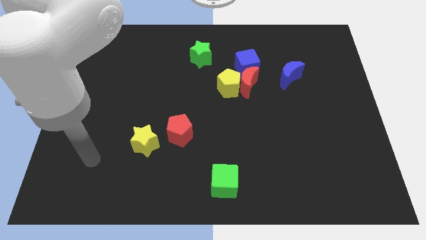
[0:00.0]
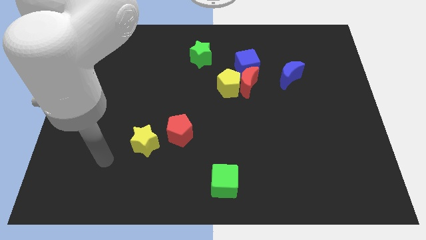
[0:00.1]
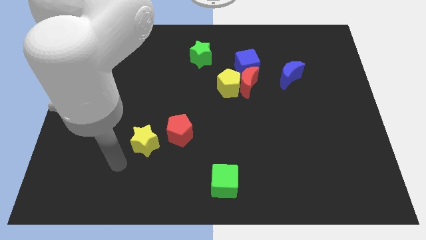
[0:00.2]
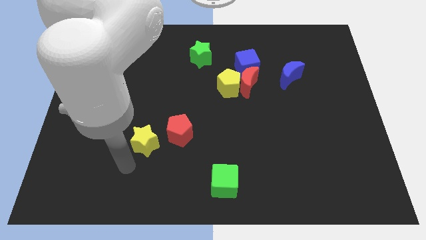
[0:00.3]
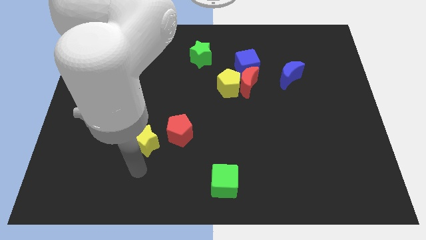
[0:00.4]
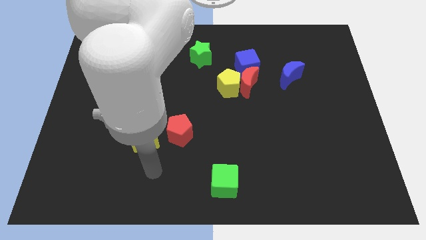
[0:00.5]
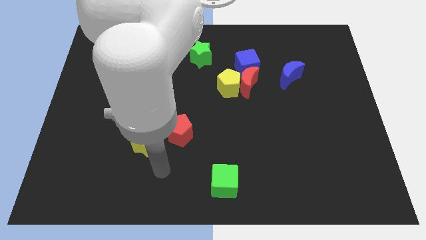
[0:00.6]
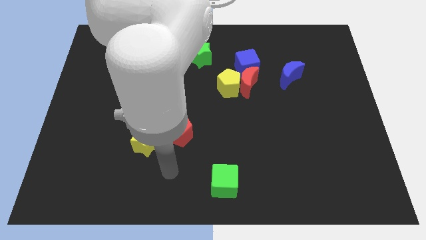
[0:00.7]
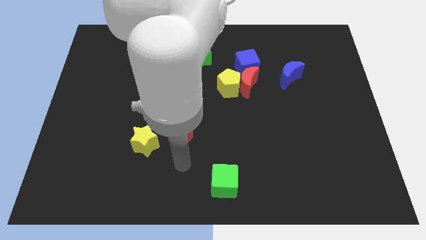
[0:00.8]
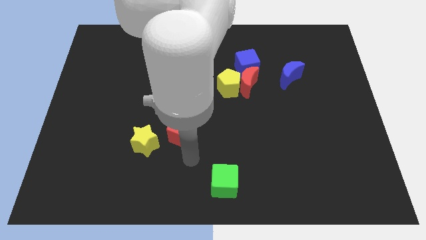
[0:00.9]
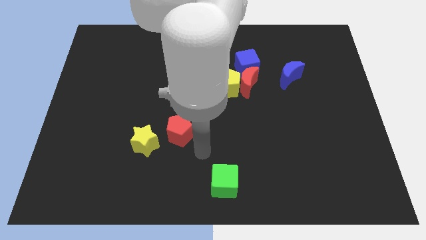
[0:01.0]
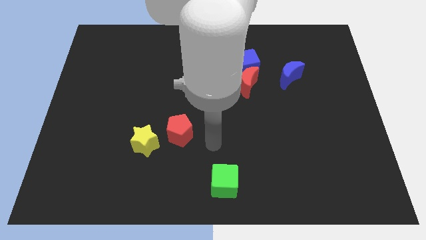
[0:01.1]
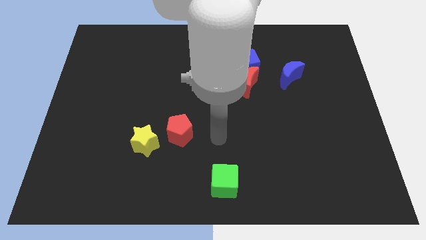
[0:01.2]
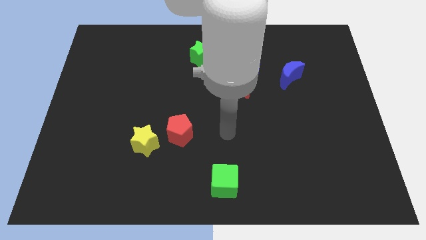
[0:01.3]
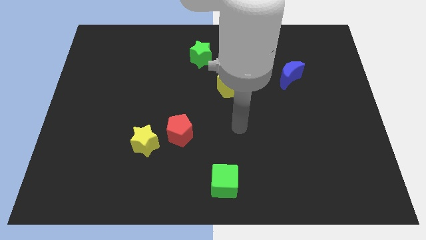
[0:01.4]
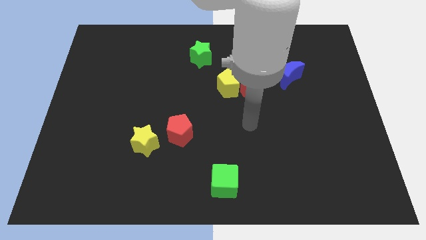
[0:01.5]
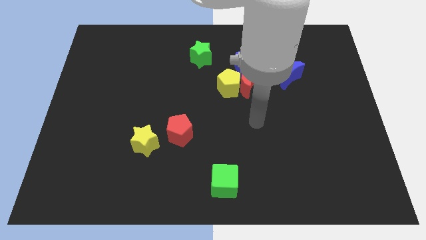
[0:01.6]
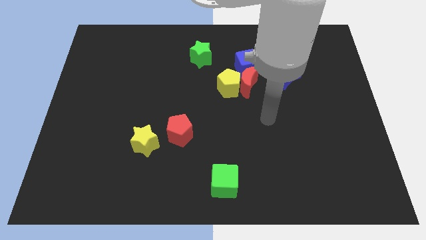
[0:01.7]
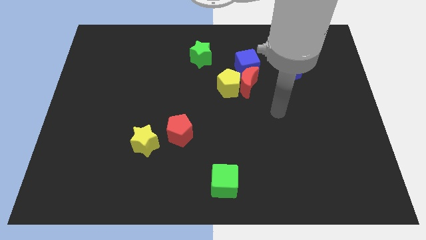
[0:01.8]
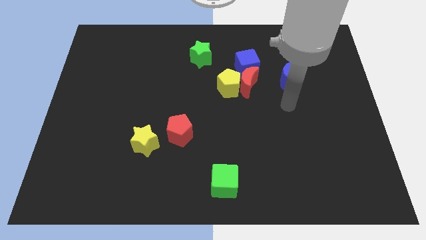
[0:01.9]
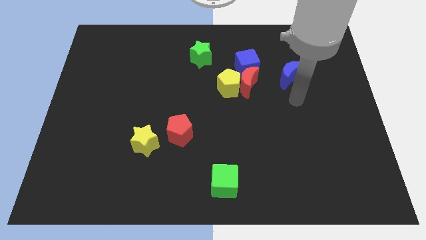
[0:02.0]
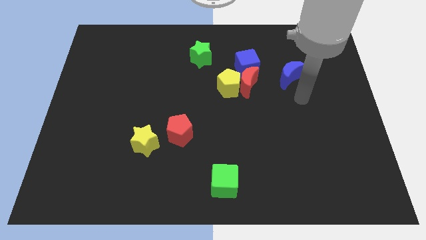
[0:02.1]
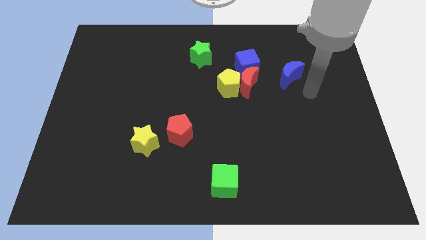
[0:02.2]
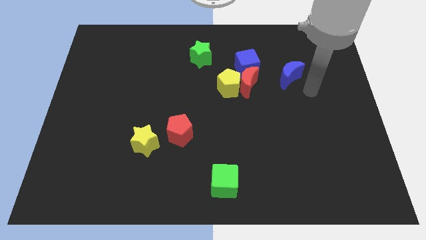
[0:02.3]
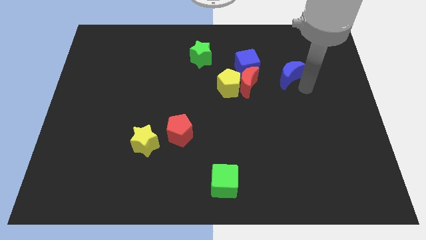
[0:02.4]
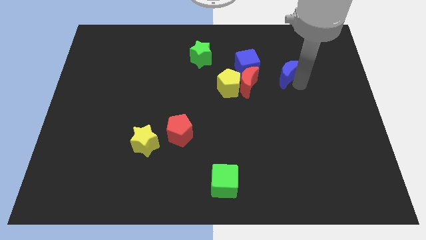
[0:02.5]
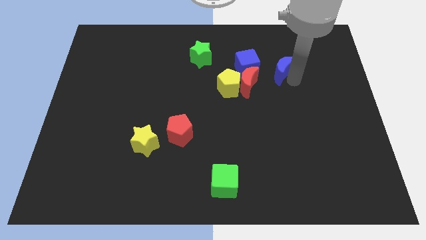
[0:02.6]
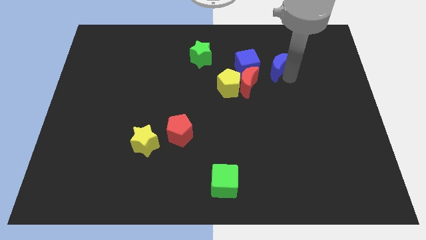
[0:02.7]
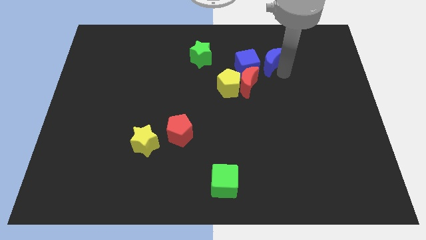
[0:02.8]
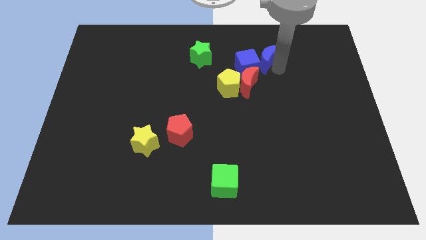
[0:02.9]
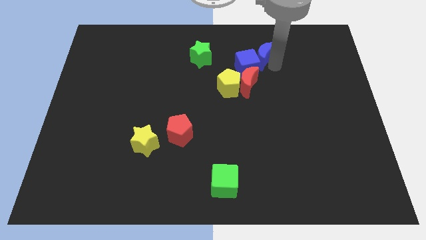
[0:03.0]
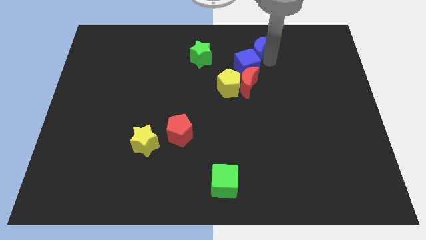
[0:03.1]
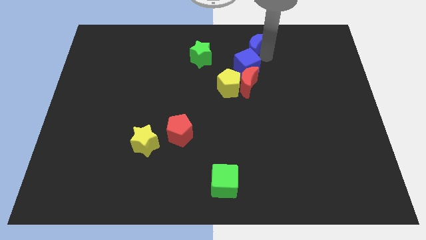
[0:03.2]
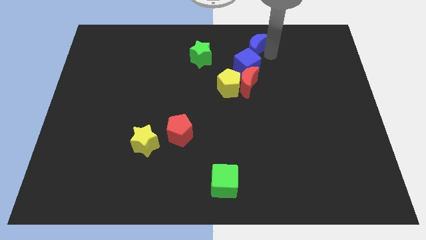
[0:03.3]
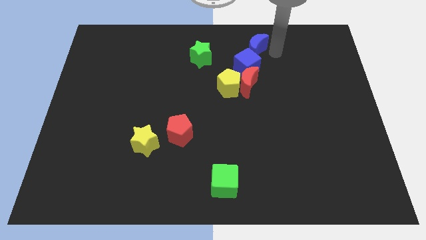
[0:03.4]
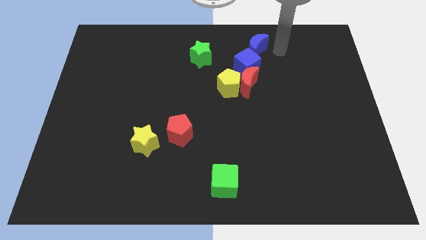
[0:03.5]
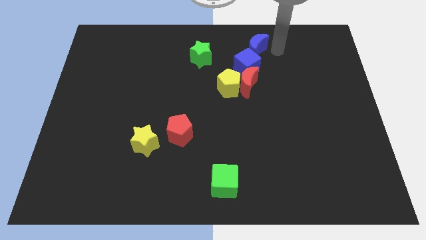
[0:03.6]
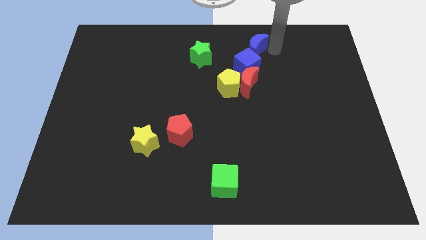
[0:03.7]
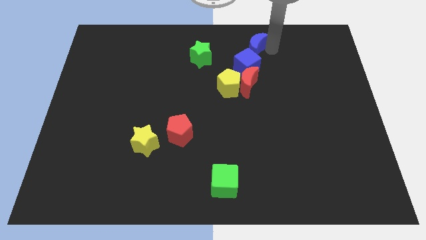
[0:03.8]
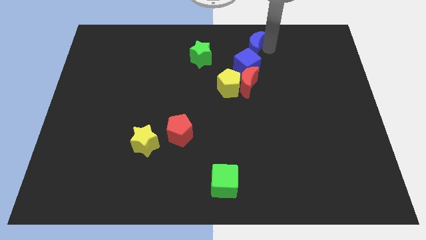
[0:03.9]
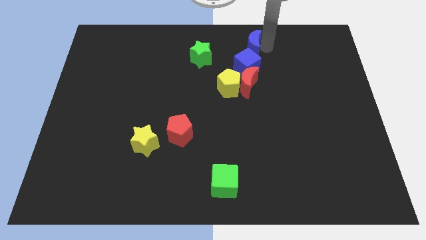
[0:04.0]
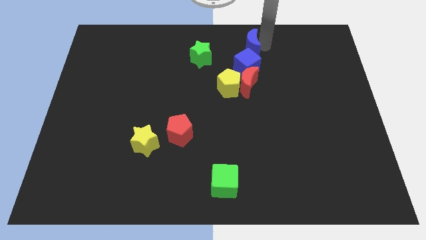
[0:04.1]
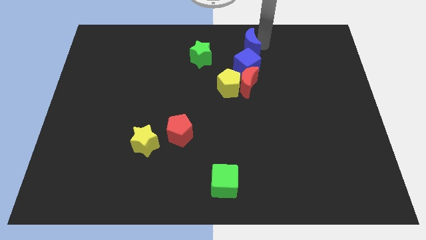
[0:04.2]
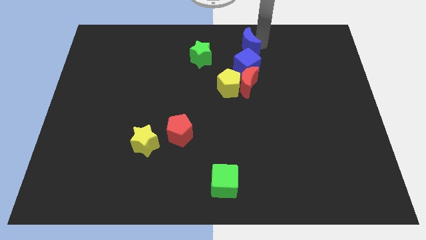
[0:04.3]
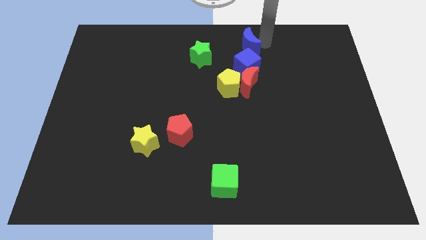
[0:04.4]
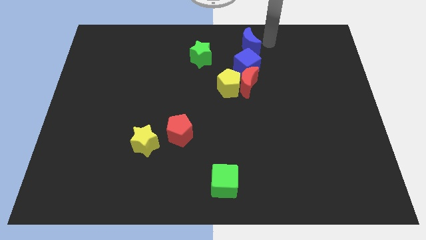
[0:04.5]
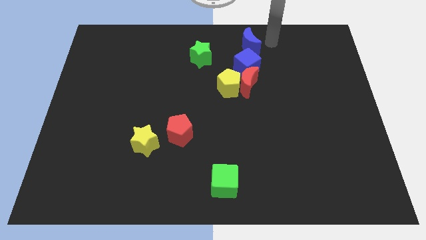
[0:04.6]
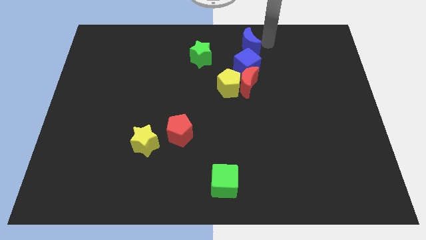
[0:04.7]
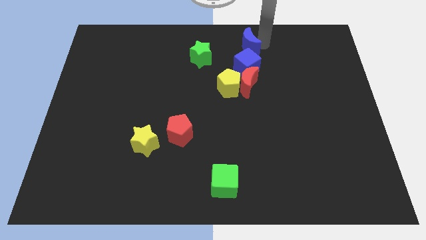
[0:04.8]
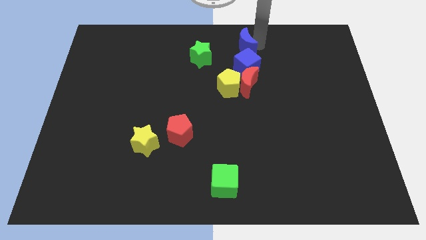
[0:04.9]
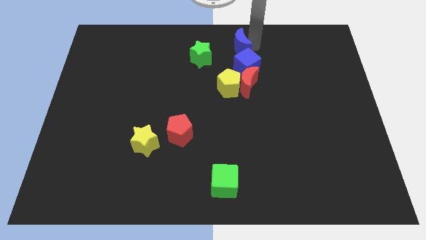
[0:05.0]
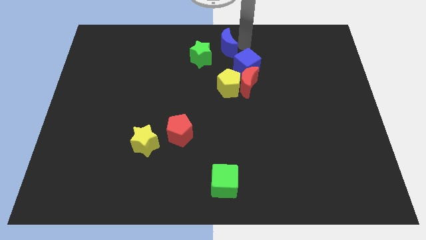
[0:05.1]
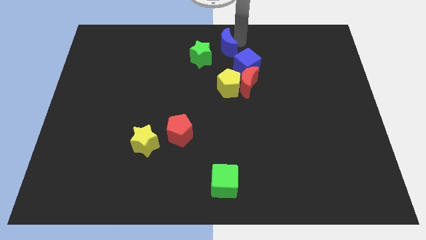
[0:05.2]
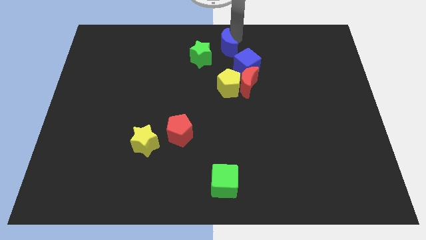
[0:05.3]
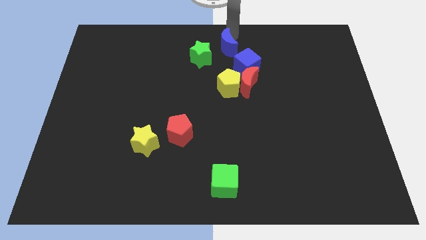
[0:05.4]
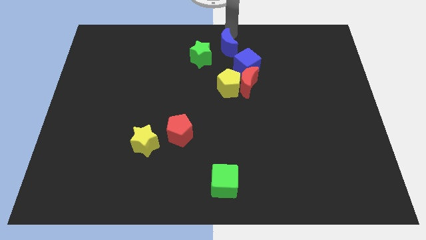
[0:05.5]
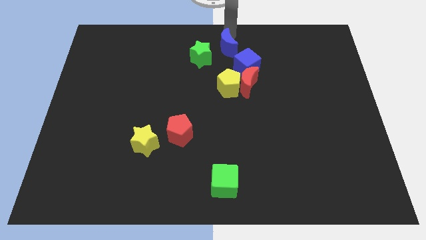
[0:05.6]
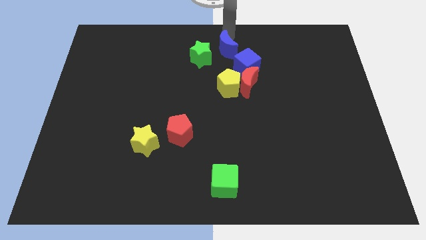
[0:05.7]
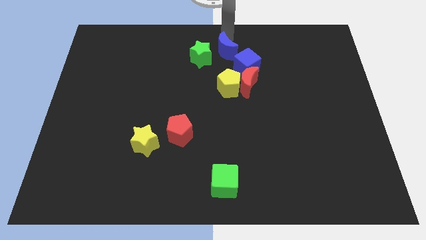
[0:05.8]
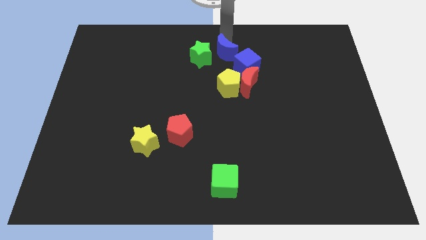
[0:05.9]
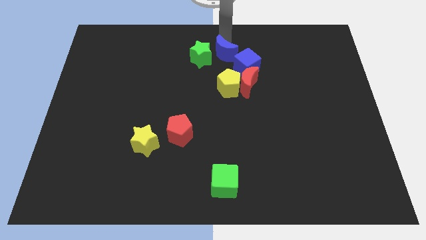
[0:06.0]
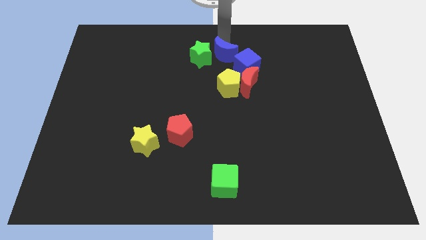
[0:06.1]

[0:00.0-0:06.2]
move the blue moon to the bottom right side of the green star

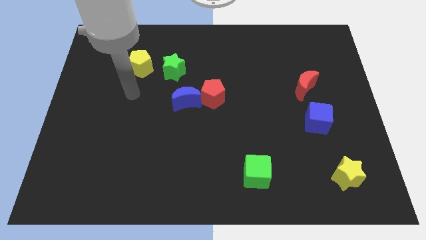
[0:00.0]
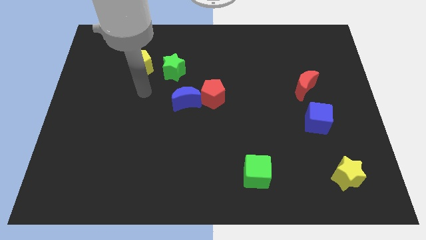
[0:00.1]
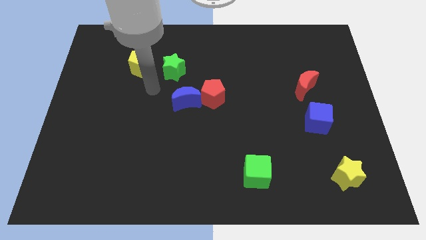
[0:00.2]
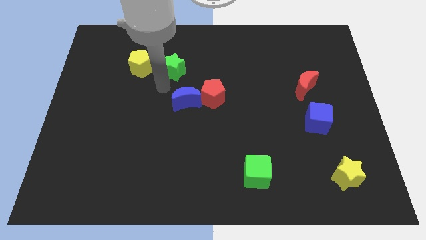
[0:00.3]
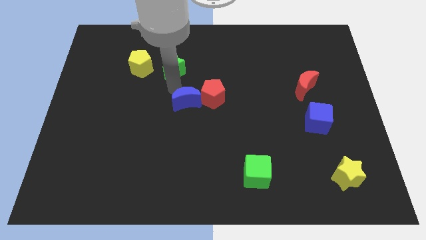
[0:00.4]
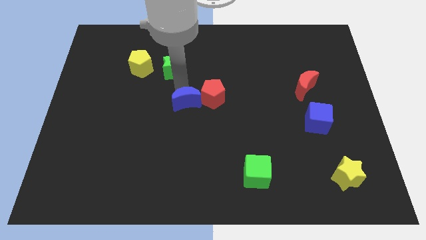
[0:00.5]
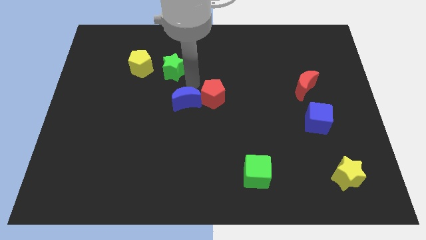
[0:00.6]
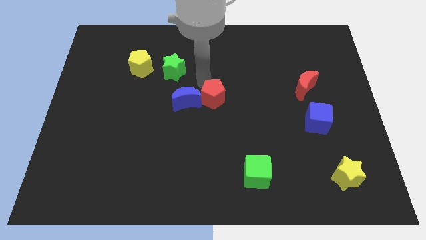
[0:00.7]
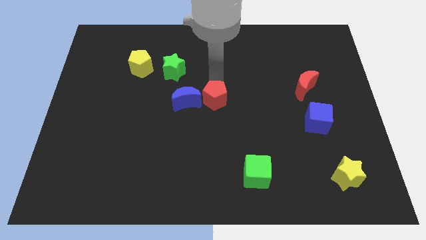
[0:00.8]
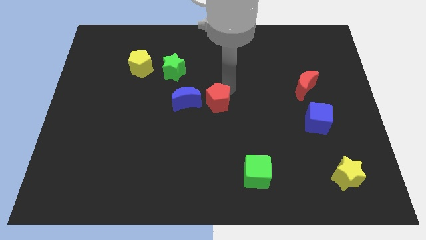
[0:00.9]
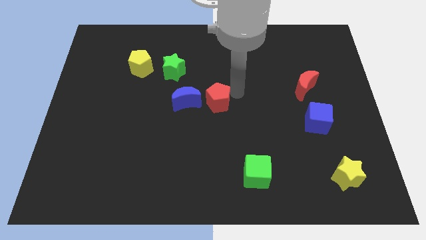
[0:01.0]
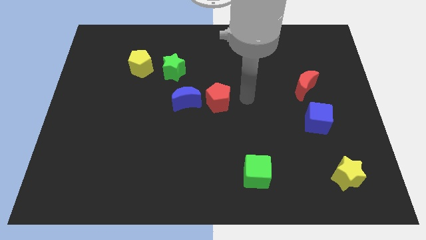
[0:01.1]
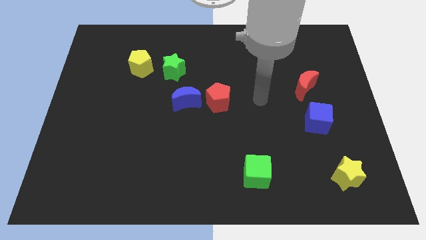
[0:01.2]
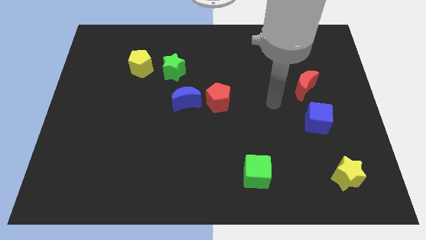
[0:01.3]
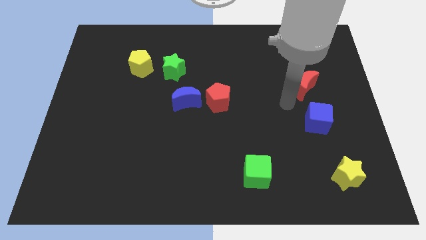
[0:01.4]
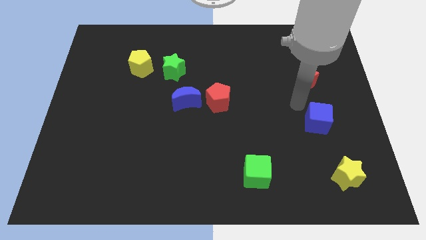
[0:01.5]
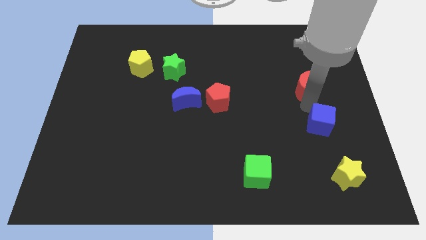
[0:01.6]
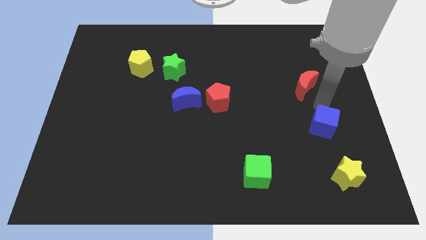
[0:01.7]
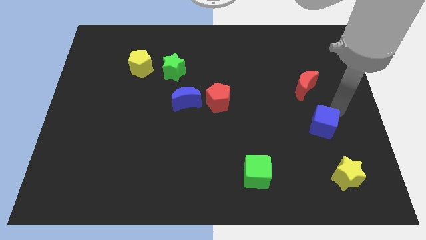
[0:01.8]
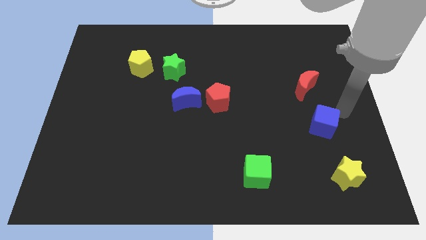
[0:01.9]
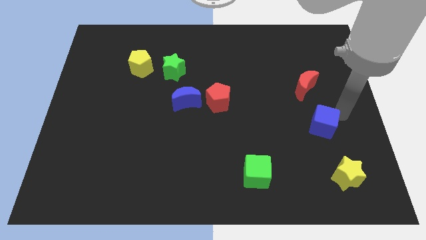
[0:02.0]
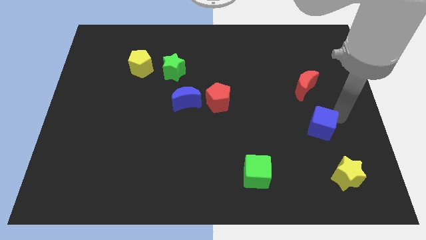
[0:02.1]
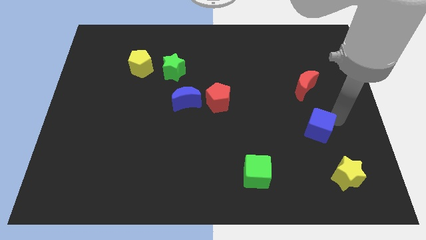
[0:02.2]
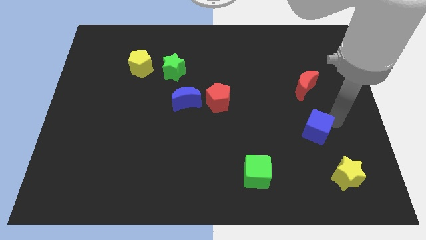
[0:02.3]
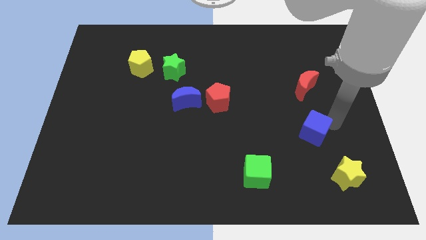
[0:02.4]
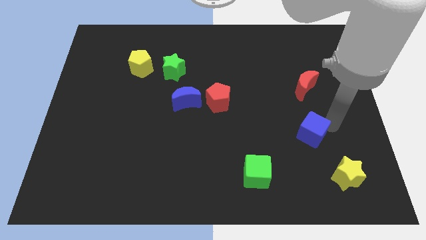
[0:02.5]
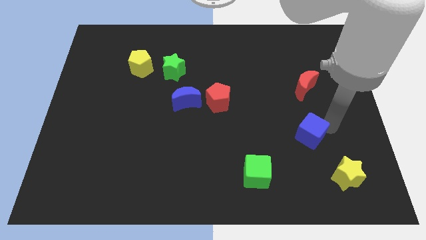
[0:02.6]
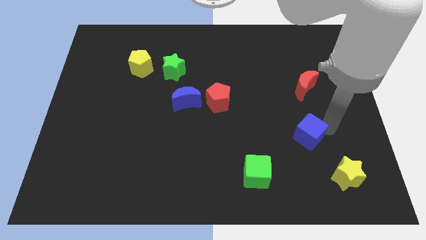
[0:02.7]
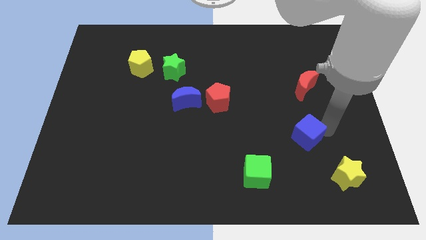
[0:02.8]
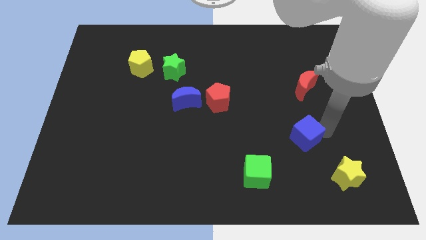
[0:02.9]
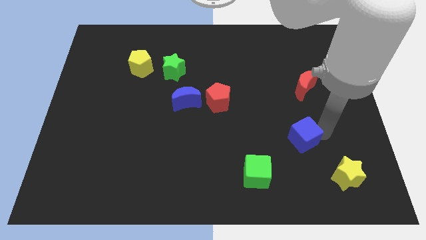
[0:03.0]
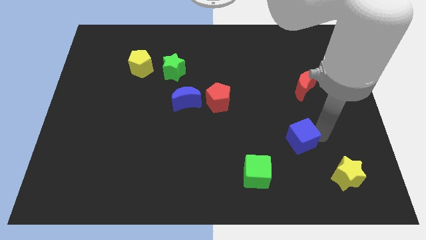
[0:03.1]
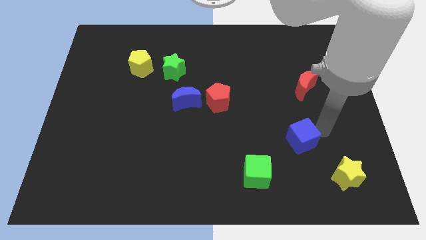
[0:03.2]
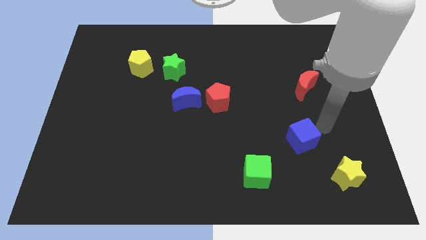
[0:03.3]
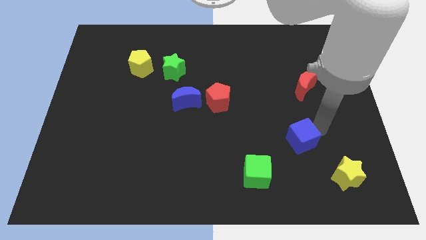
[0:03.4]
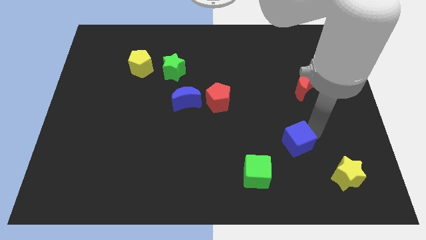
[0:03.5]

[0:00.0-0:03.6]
slide the blue cube to the top right side of the green cube
